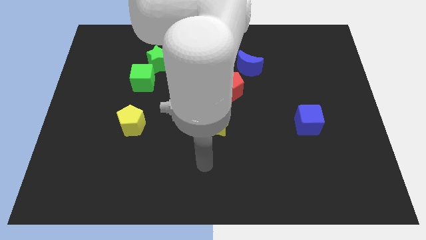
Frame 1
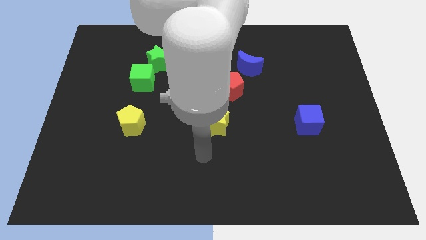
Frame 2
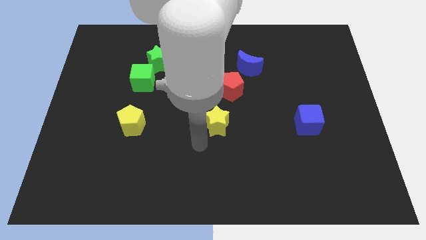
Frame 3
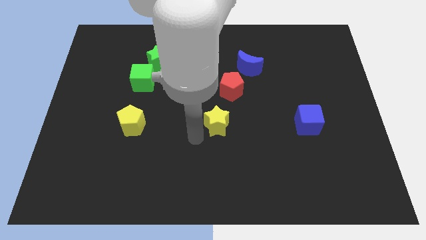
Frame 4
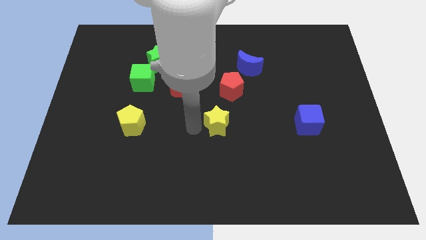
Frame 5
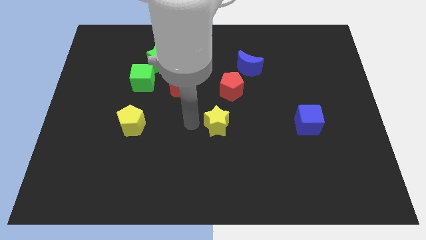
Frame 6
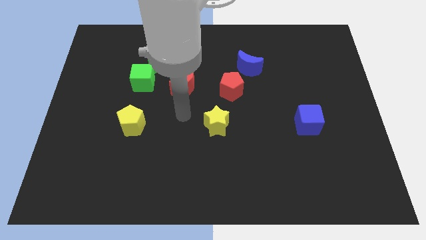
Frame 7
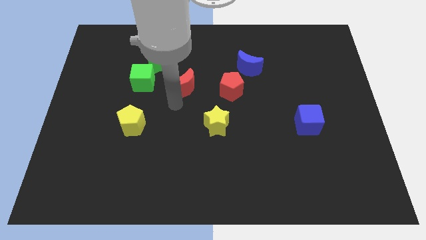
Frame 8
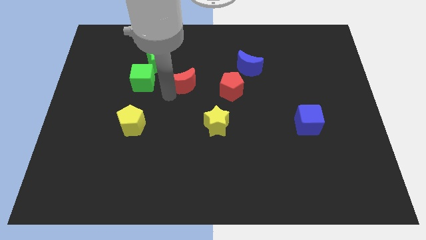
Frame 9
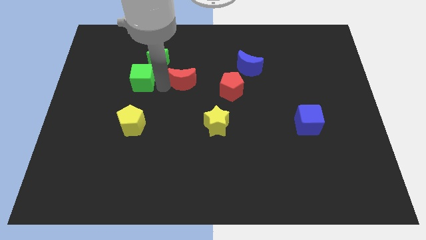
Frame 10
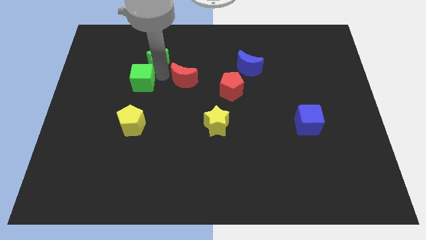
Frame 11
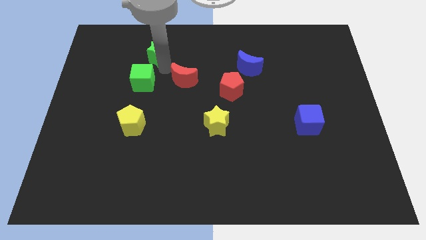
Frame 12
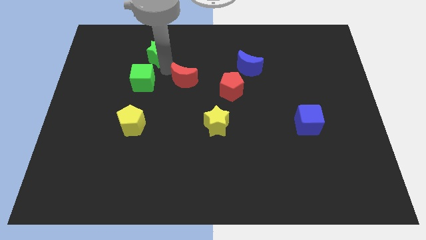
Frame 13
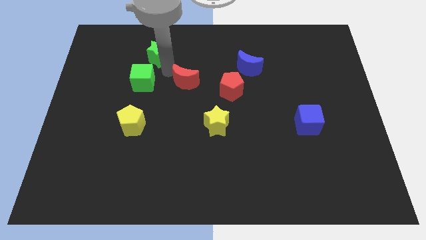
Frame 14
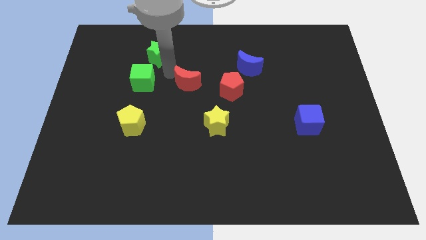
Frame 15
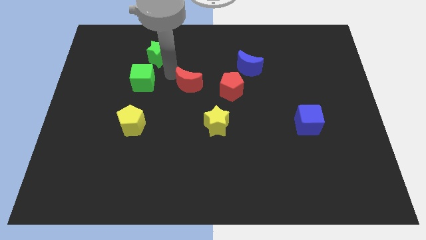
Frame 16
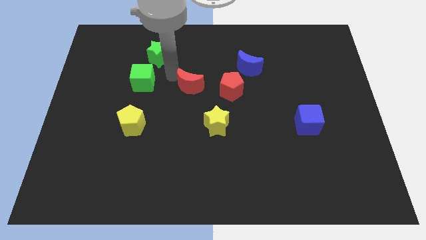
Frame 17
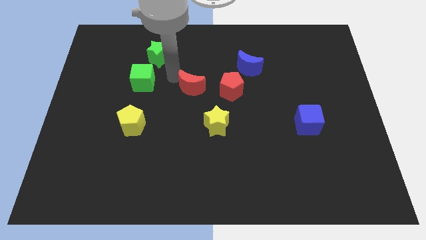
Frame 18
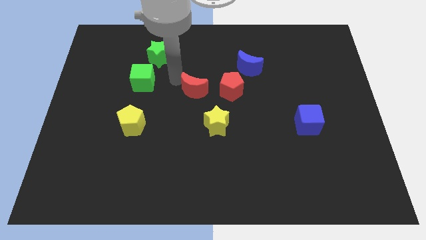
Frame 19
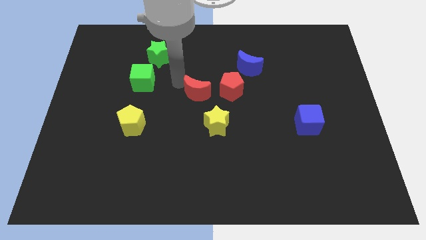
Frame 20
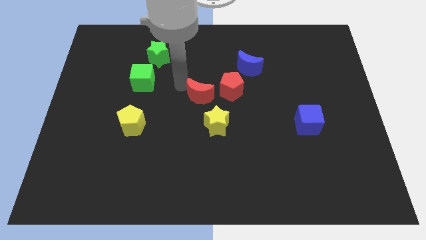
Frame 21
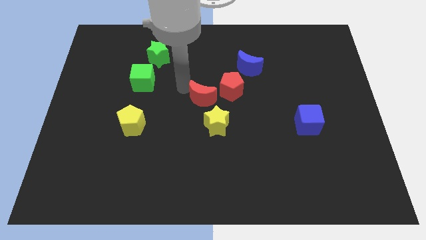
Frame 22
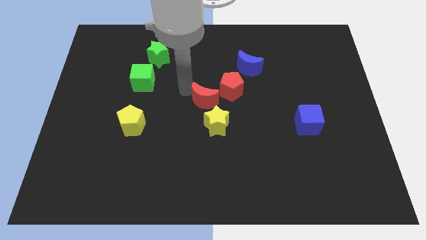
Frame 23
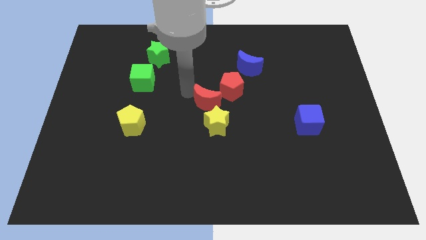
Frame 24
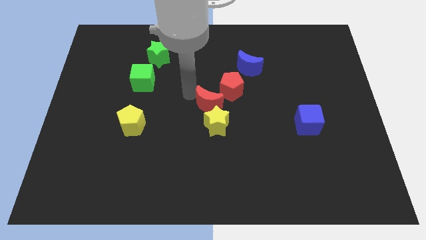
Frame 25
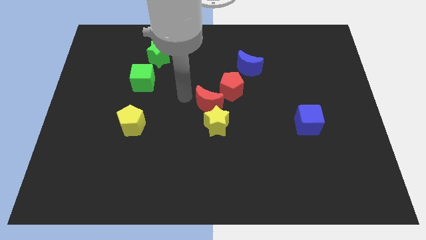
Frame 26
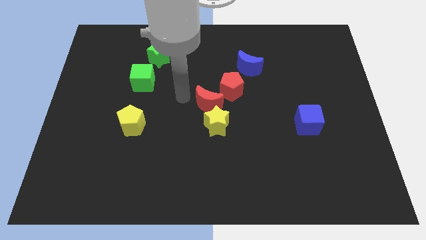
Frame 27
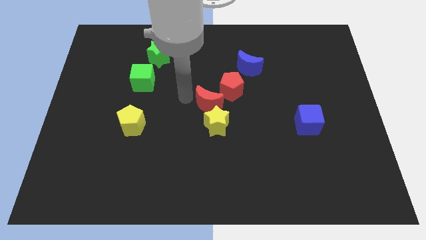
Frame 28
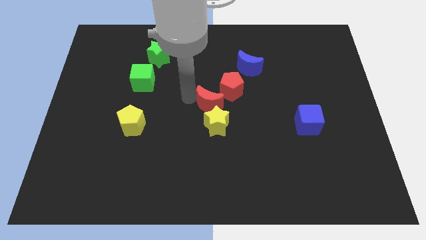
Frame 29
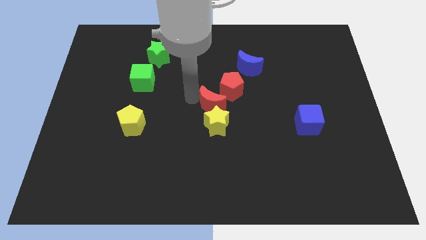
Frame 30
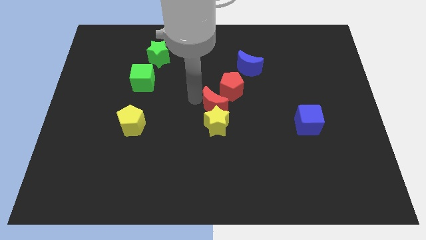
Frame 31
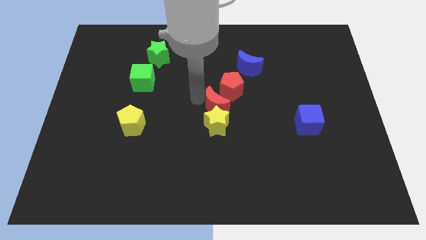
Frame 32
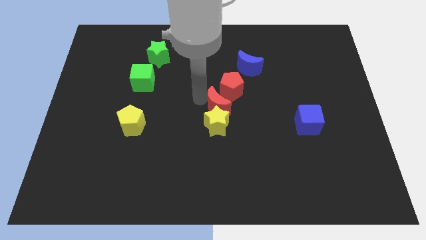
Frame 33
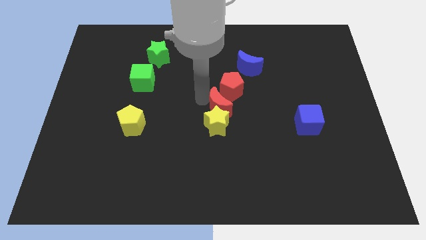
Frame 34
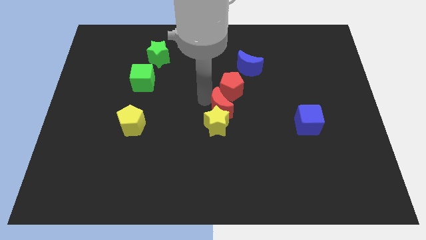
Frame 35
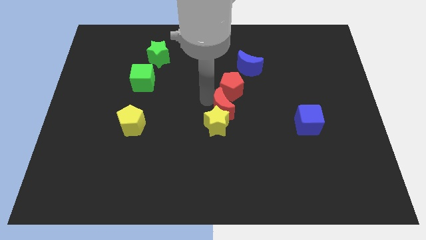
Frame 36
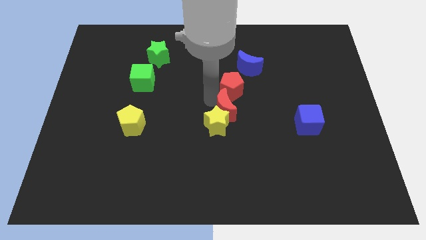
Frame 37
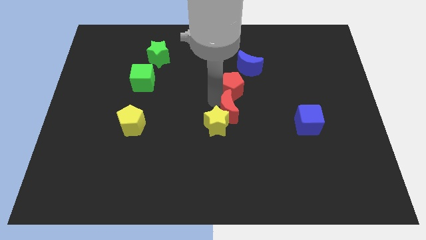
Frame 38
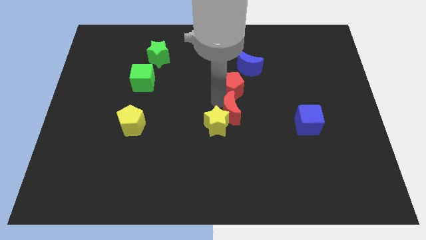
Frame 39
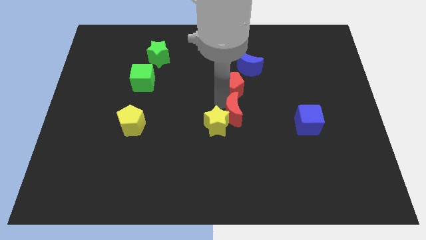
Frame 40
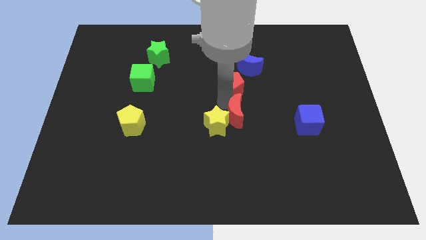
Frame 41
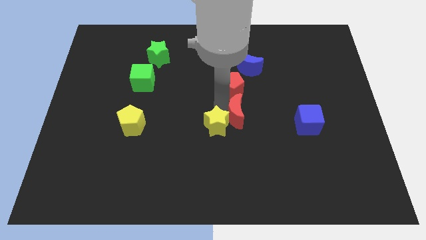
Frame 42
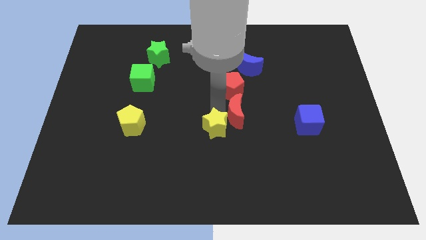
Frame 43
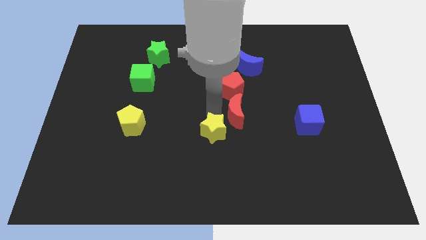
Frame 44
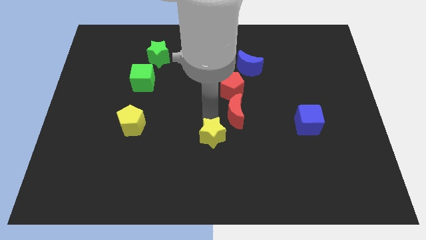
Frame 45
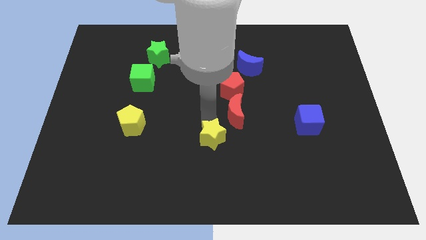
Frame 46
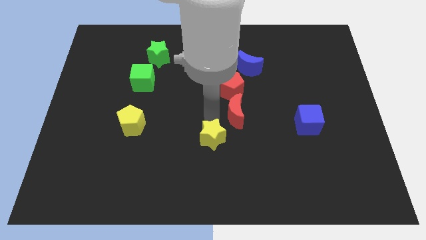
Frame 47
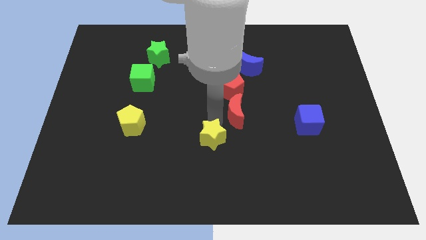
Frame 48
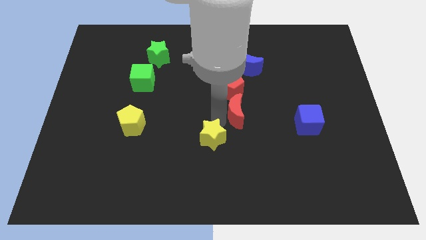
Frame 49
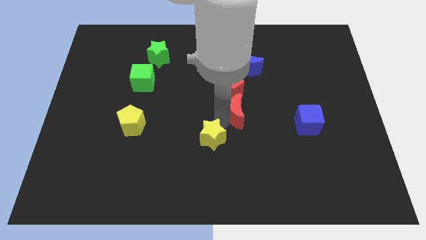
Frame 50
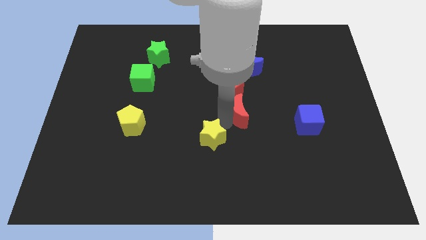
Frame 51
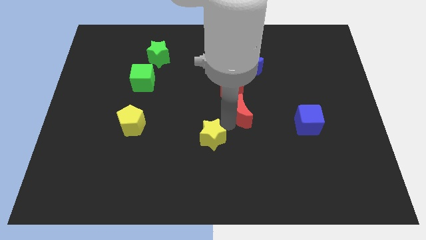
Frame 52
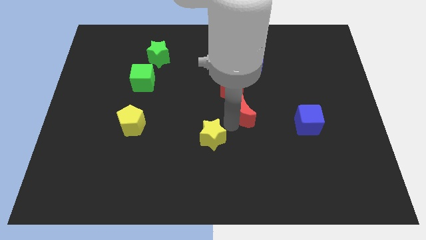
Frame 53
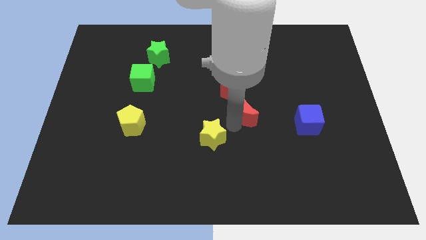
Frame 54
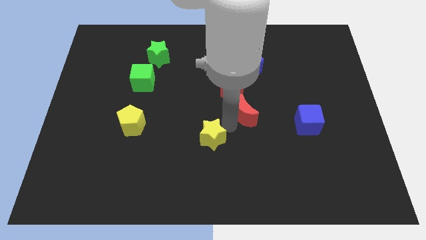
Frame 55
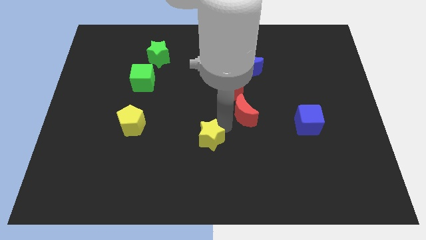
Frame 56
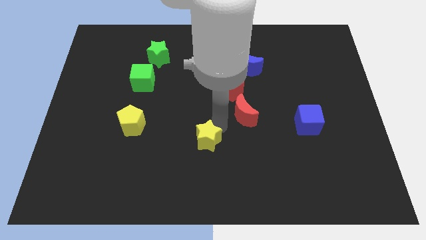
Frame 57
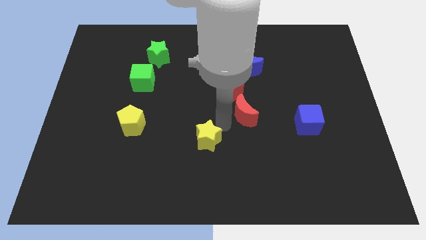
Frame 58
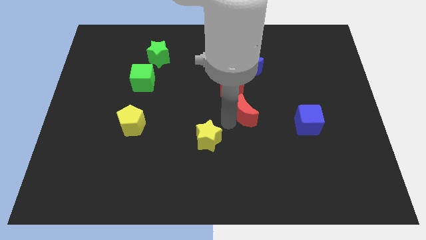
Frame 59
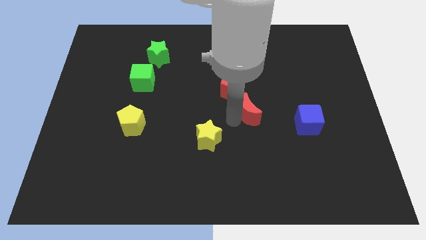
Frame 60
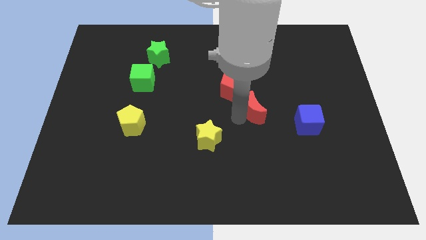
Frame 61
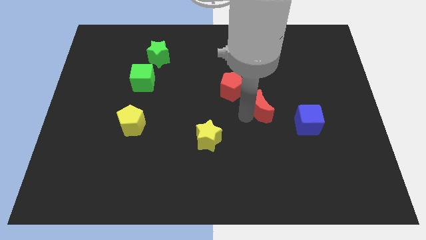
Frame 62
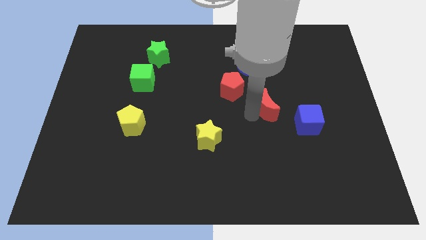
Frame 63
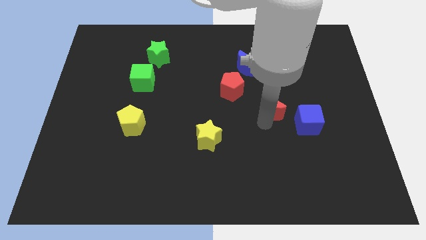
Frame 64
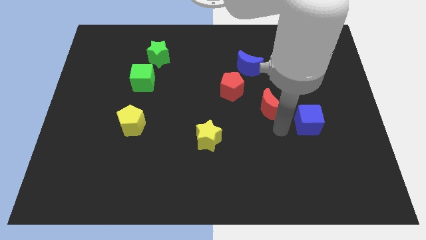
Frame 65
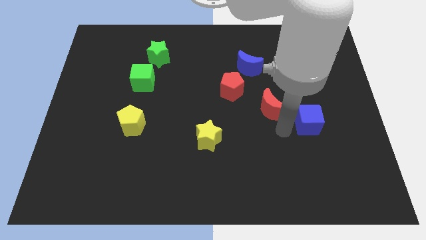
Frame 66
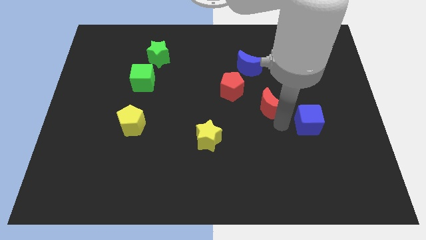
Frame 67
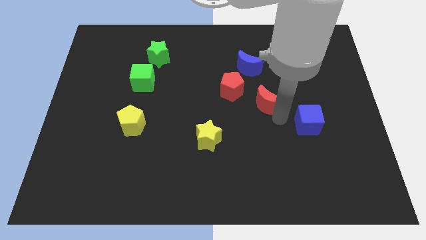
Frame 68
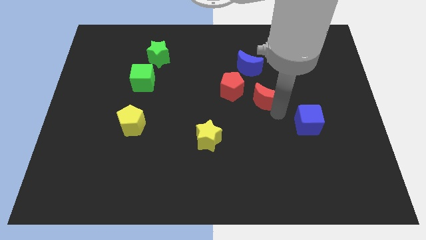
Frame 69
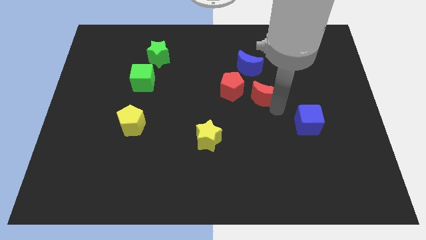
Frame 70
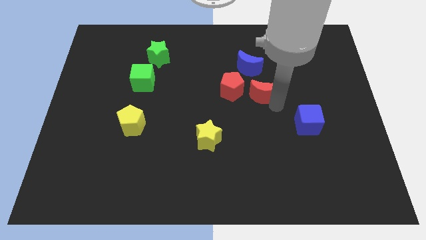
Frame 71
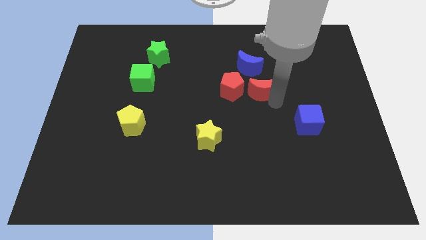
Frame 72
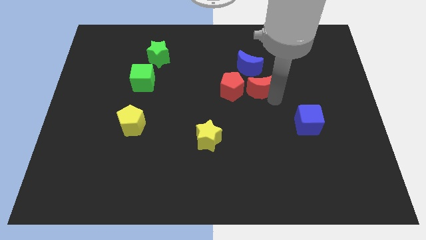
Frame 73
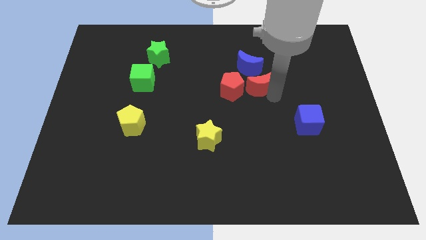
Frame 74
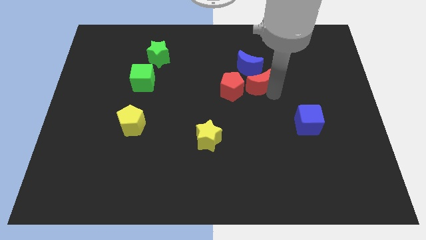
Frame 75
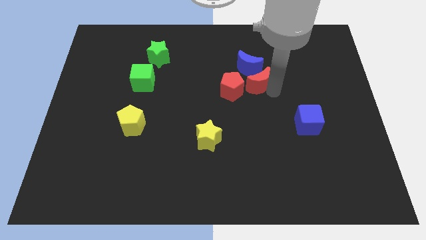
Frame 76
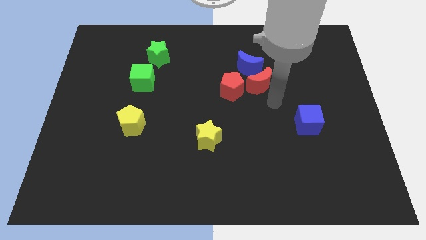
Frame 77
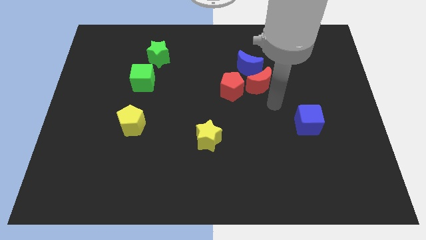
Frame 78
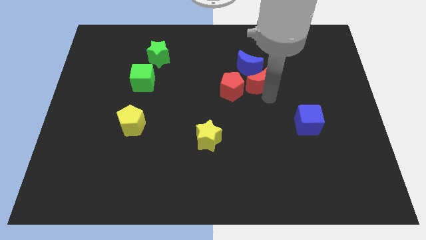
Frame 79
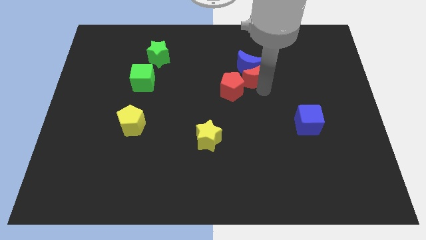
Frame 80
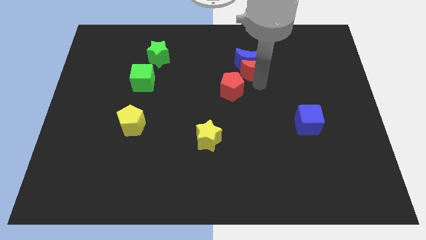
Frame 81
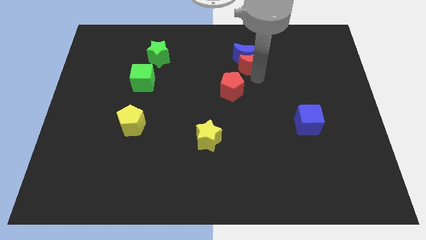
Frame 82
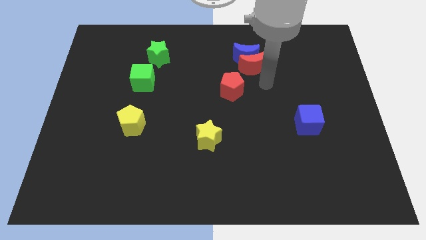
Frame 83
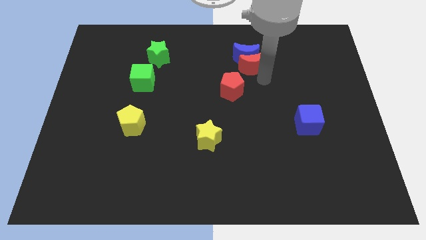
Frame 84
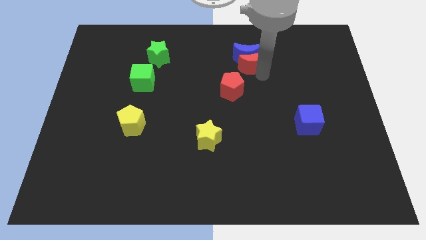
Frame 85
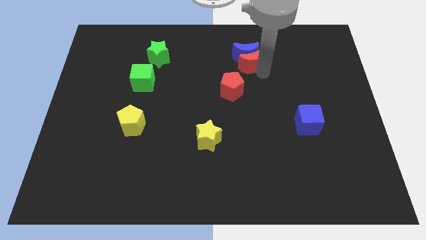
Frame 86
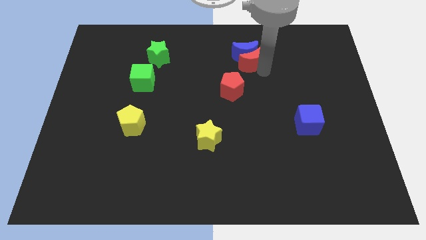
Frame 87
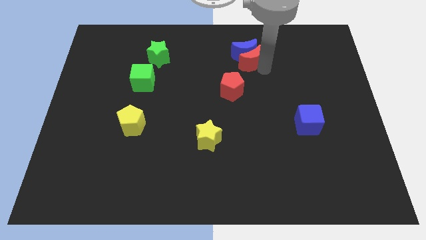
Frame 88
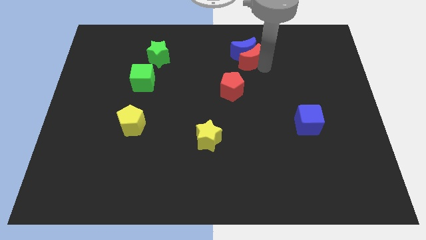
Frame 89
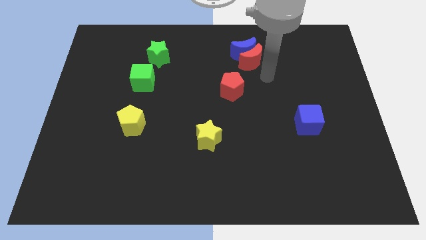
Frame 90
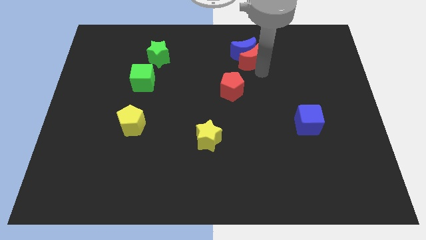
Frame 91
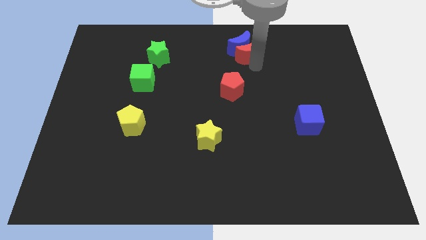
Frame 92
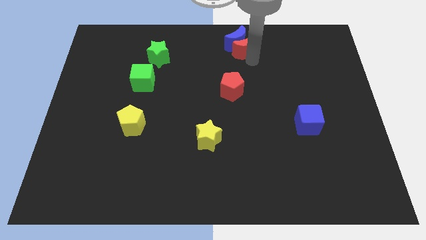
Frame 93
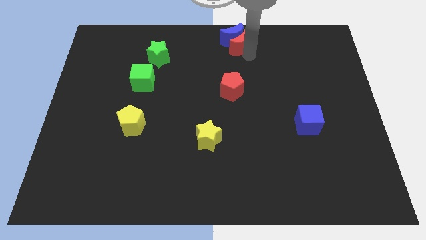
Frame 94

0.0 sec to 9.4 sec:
push the red moon to the top side
